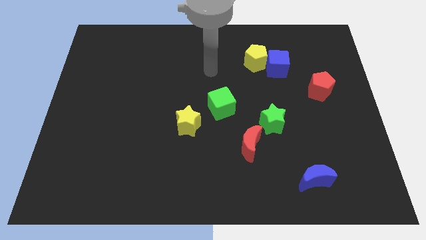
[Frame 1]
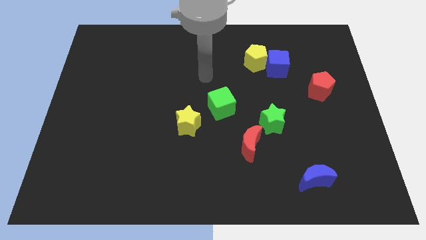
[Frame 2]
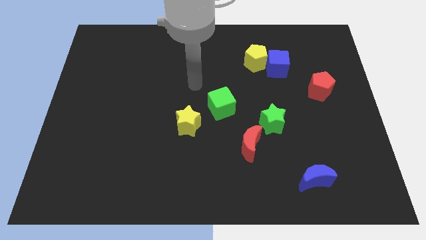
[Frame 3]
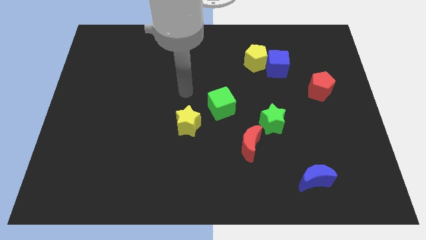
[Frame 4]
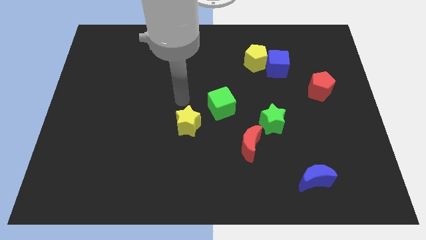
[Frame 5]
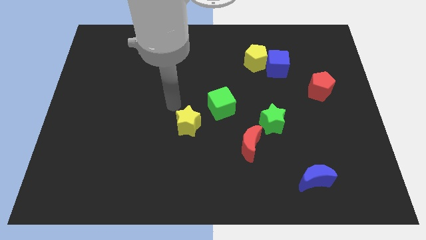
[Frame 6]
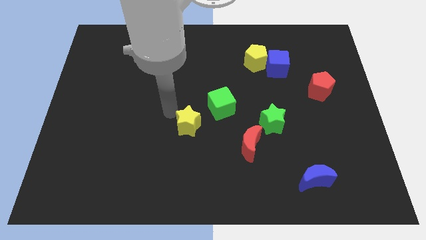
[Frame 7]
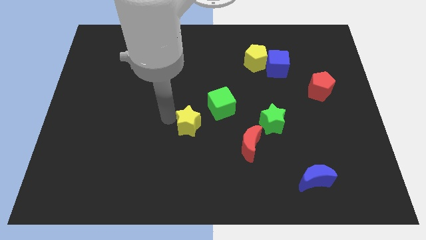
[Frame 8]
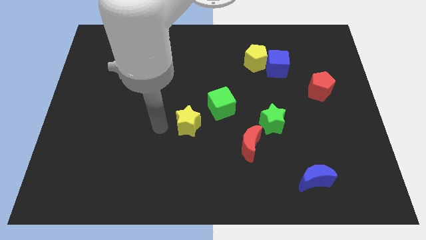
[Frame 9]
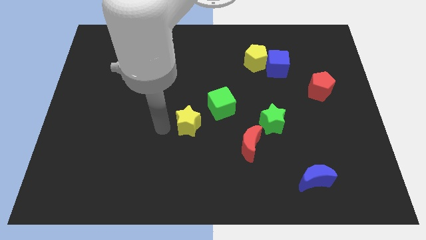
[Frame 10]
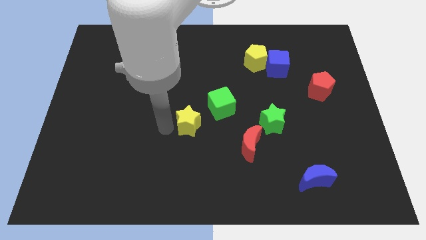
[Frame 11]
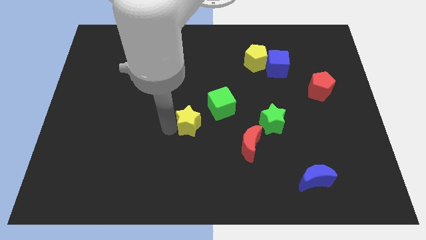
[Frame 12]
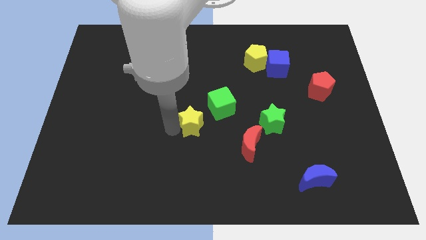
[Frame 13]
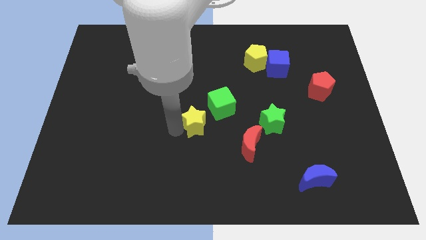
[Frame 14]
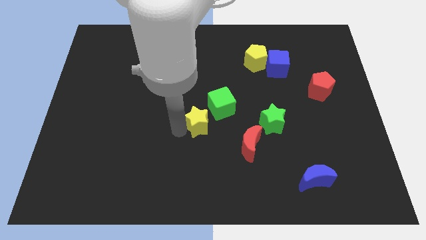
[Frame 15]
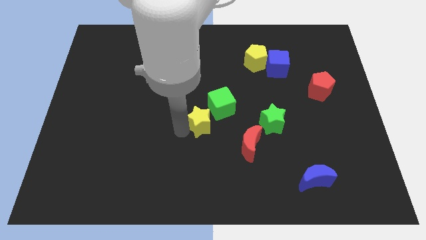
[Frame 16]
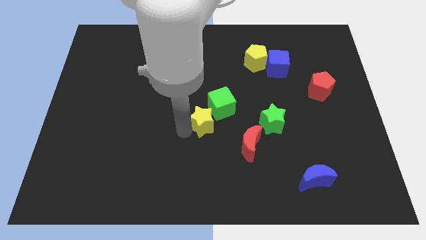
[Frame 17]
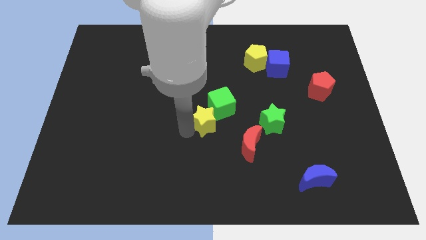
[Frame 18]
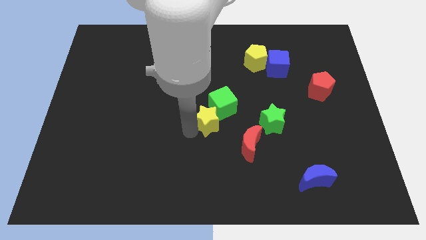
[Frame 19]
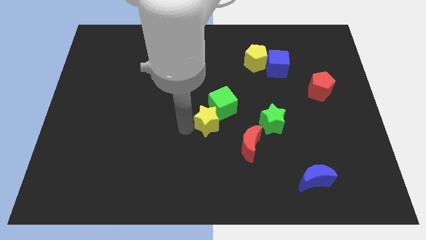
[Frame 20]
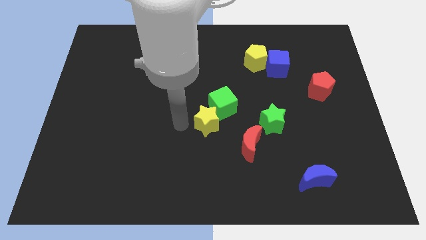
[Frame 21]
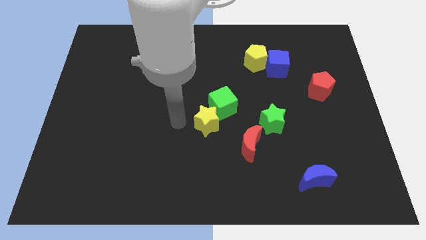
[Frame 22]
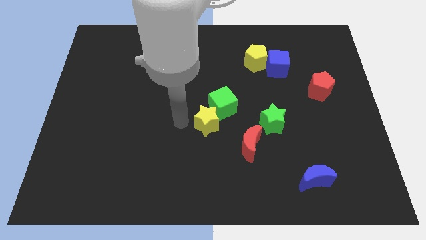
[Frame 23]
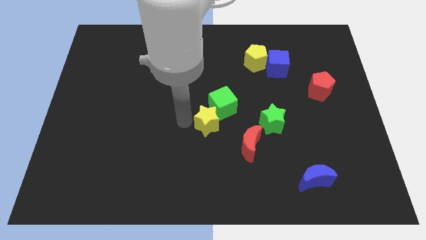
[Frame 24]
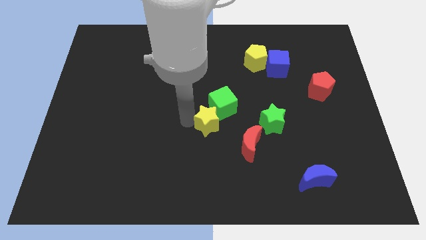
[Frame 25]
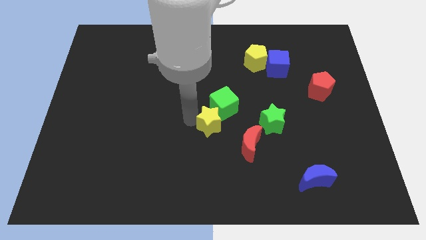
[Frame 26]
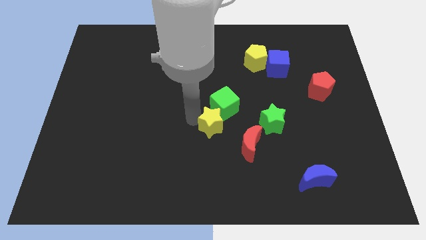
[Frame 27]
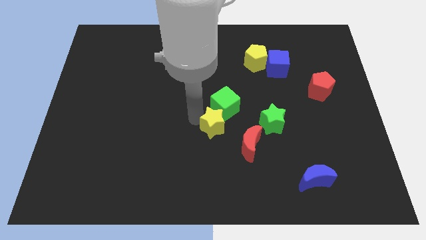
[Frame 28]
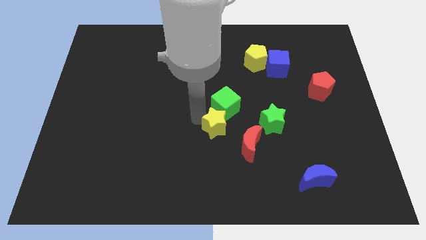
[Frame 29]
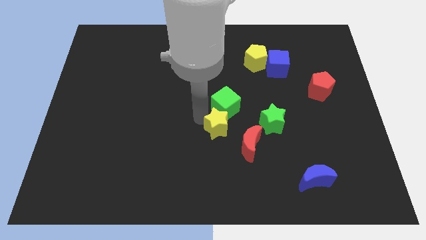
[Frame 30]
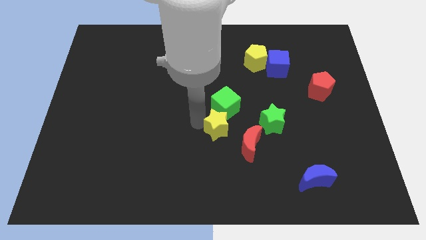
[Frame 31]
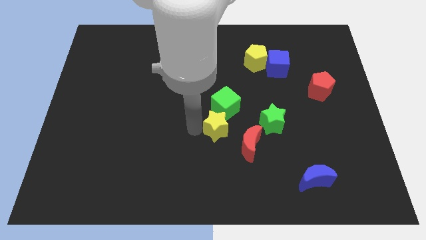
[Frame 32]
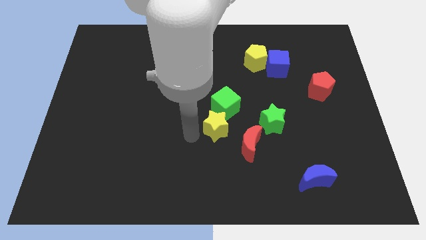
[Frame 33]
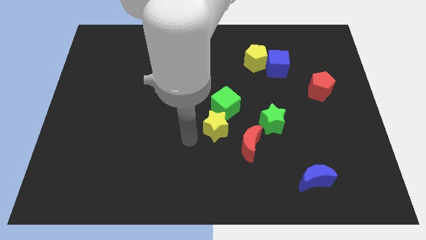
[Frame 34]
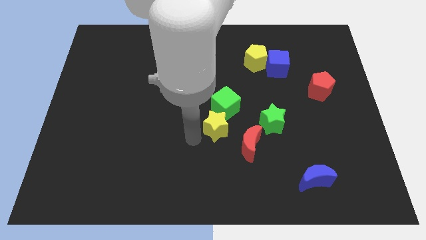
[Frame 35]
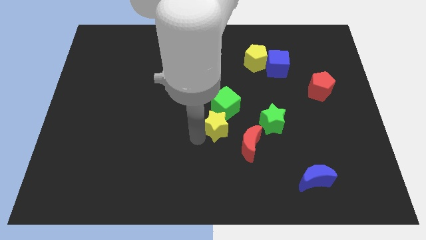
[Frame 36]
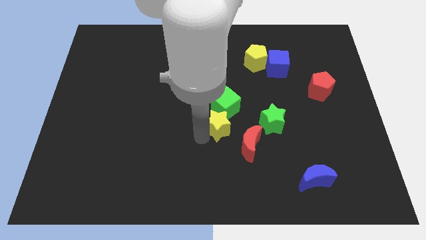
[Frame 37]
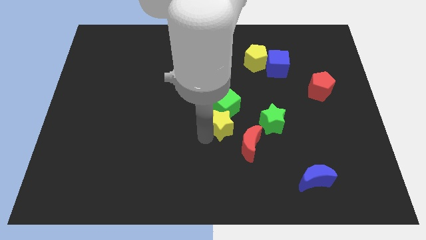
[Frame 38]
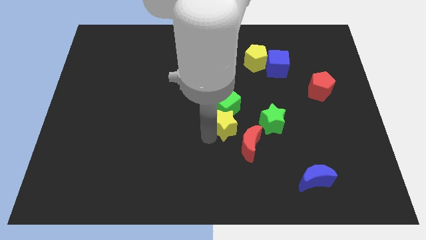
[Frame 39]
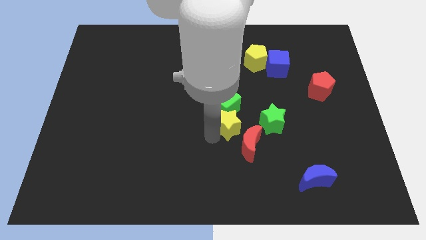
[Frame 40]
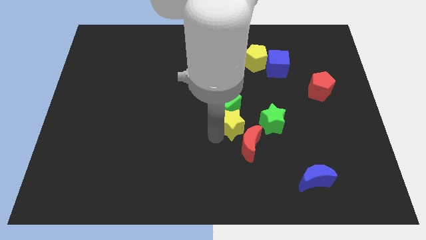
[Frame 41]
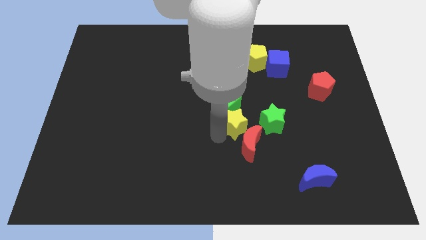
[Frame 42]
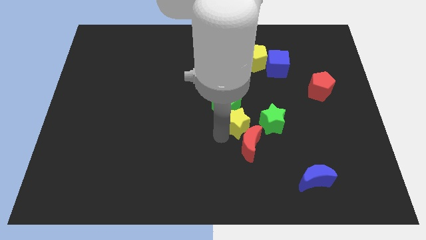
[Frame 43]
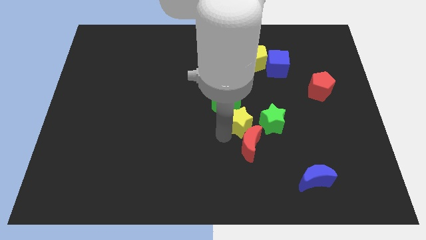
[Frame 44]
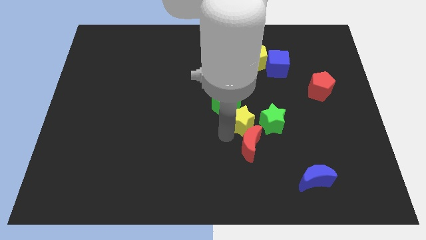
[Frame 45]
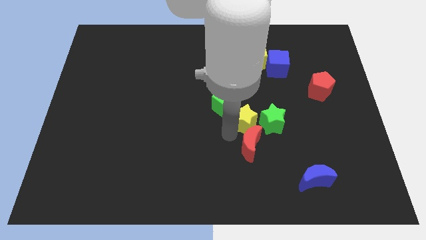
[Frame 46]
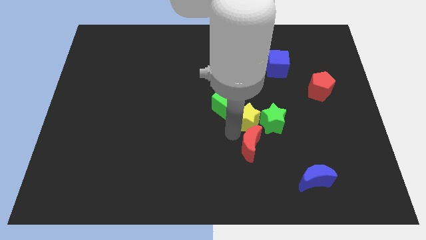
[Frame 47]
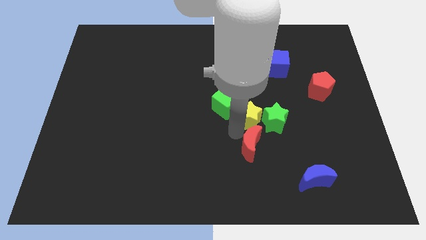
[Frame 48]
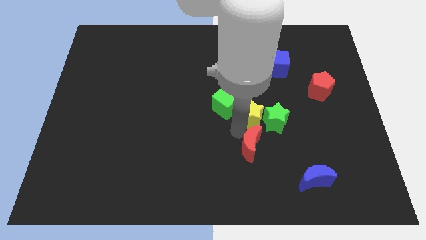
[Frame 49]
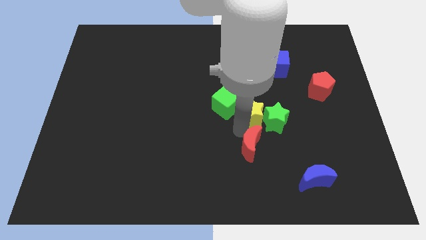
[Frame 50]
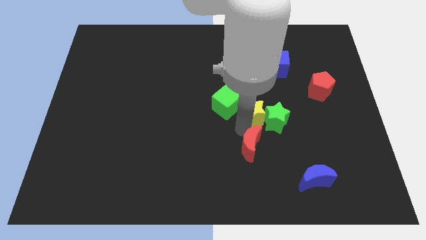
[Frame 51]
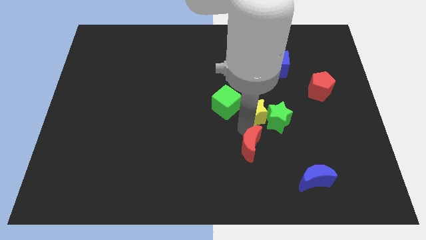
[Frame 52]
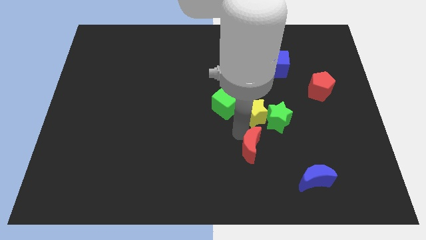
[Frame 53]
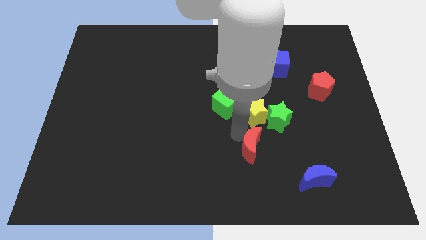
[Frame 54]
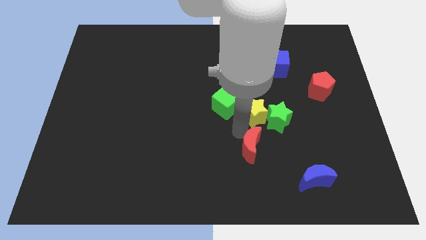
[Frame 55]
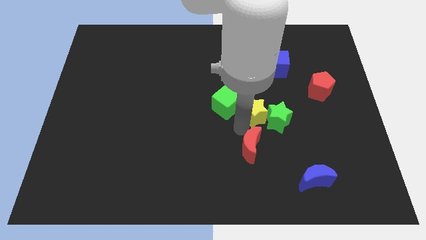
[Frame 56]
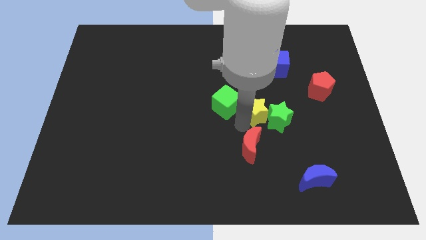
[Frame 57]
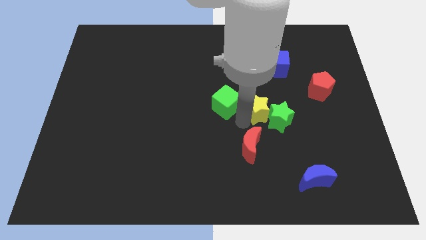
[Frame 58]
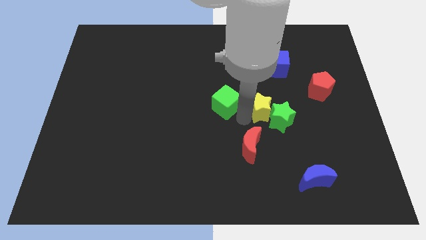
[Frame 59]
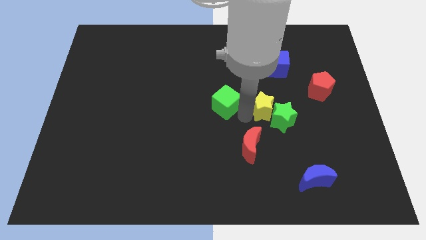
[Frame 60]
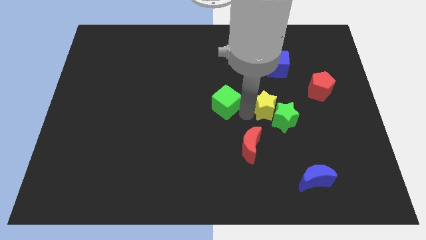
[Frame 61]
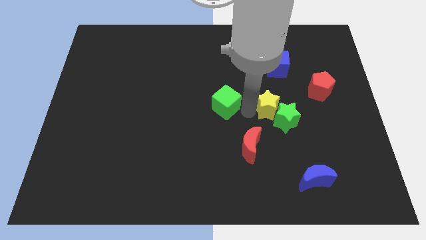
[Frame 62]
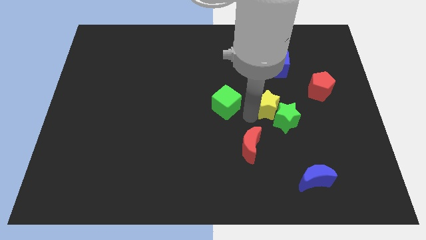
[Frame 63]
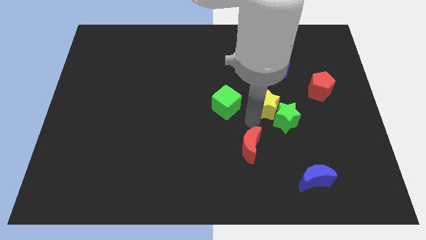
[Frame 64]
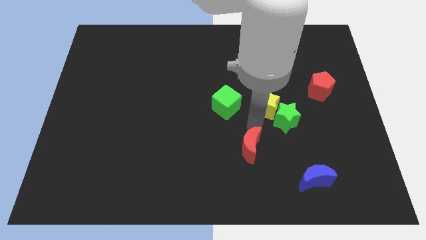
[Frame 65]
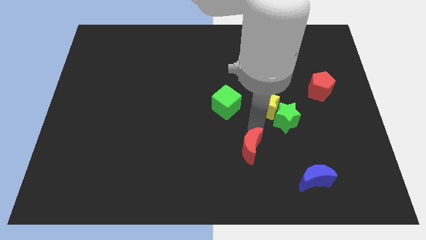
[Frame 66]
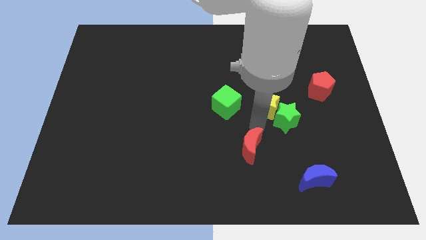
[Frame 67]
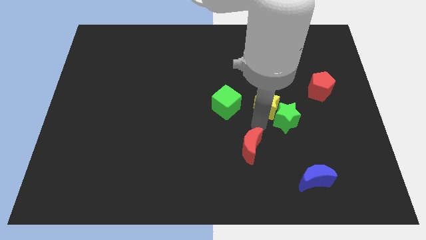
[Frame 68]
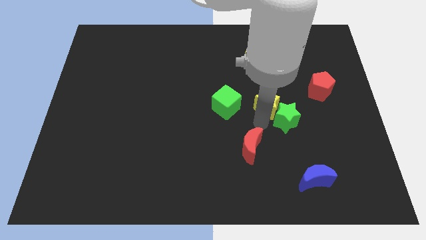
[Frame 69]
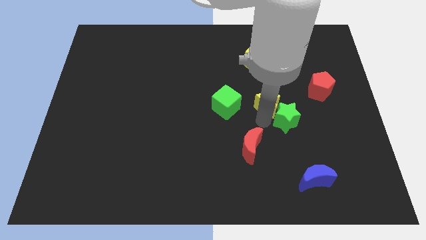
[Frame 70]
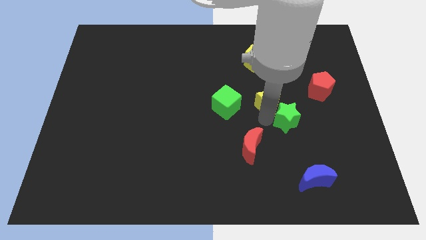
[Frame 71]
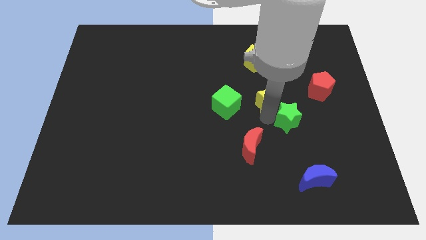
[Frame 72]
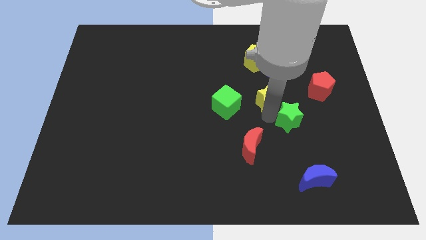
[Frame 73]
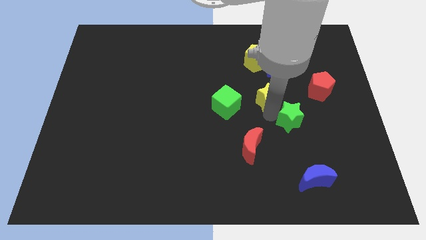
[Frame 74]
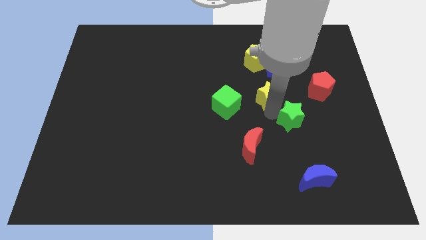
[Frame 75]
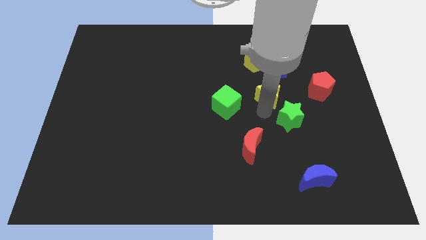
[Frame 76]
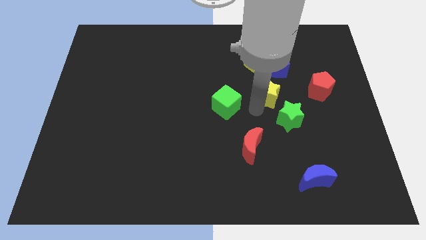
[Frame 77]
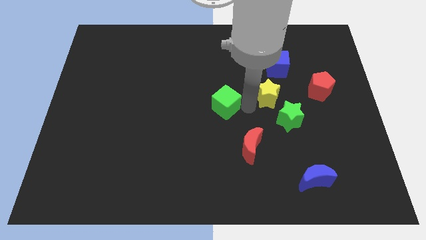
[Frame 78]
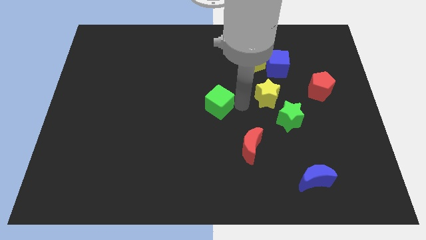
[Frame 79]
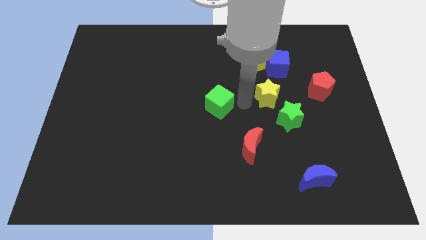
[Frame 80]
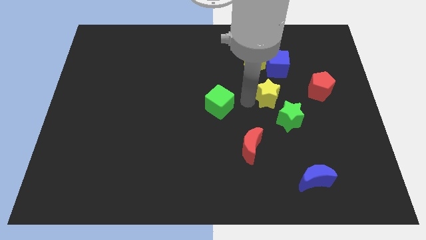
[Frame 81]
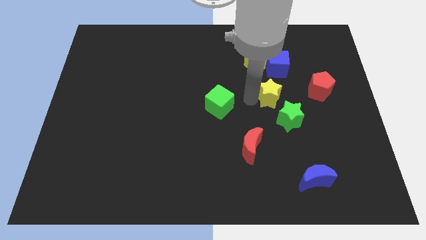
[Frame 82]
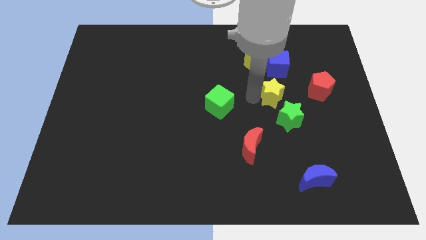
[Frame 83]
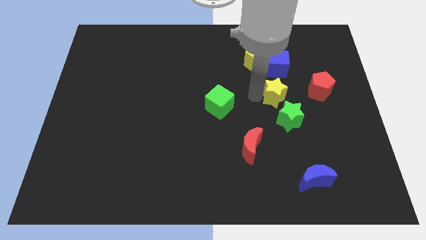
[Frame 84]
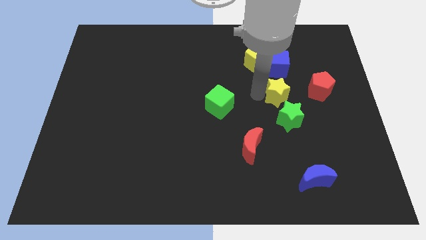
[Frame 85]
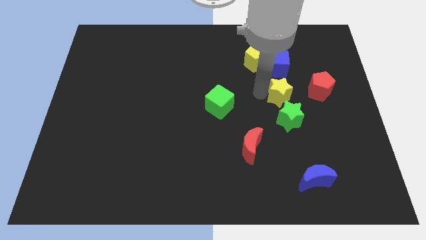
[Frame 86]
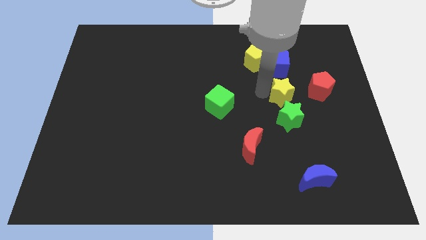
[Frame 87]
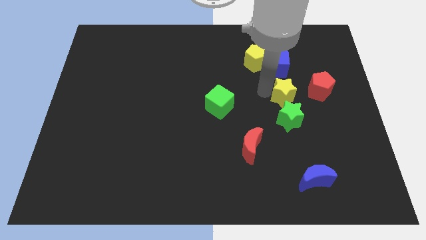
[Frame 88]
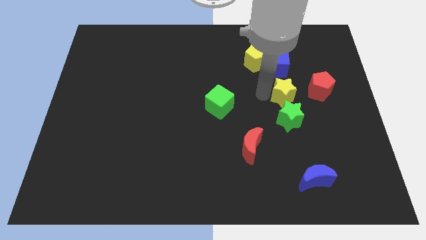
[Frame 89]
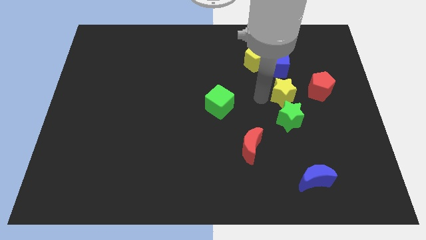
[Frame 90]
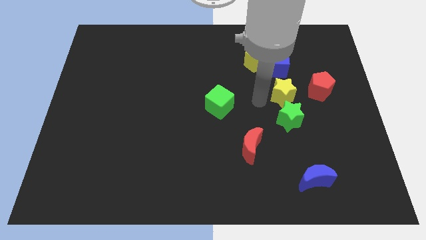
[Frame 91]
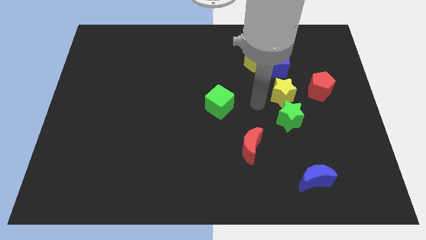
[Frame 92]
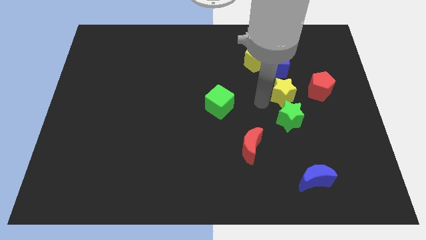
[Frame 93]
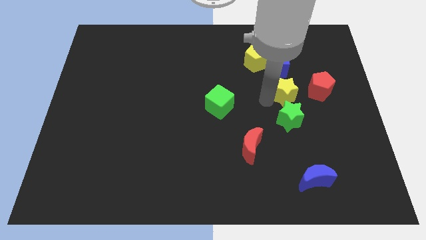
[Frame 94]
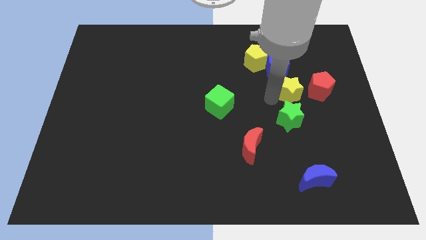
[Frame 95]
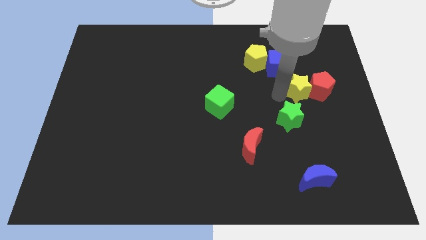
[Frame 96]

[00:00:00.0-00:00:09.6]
move the yellow star next to the red pentagon
